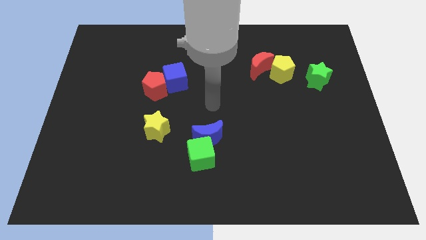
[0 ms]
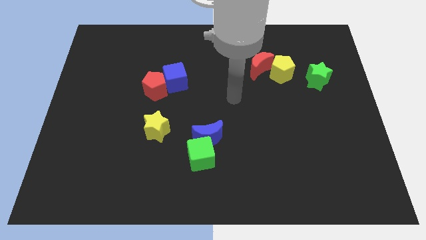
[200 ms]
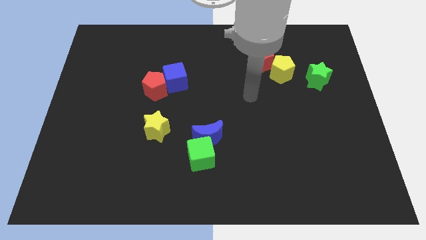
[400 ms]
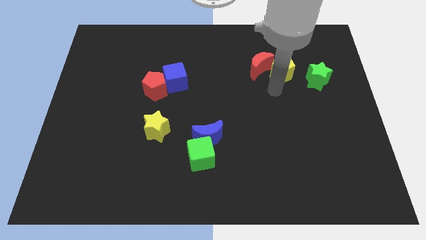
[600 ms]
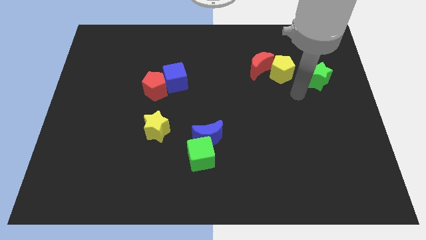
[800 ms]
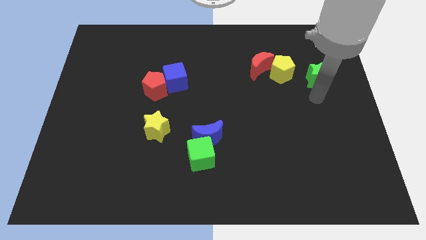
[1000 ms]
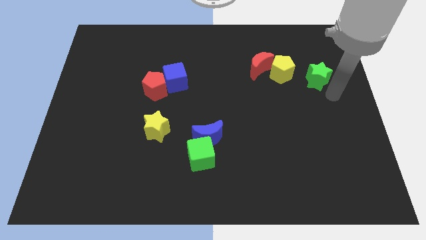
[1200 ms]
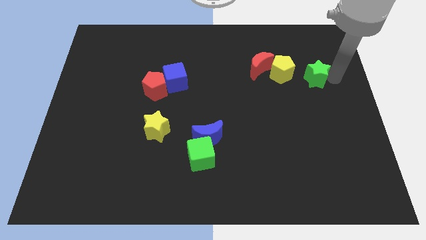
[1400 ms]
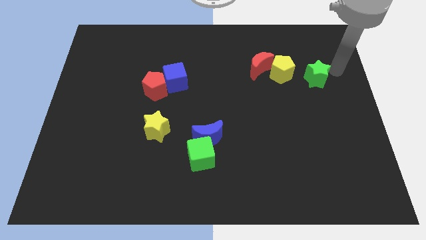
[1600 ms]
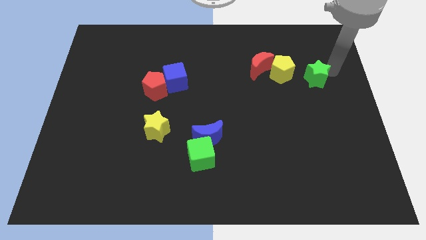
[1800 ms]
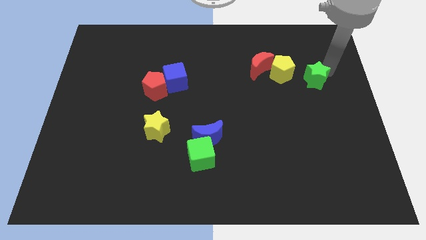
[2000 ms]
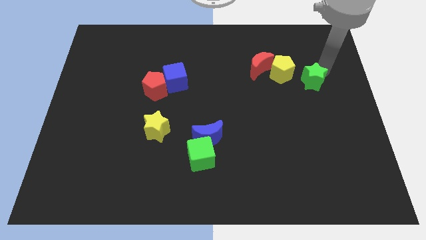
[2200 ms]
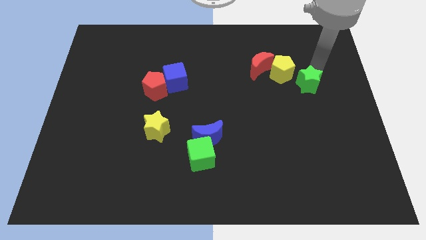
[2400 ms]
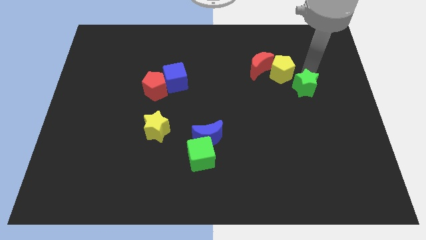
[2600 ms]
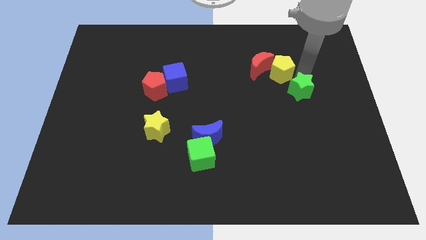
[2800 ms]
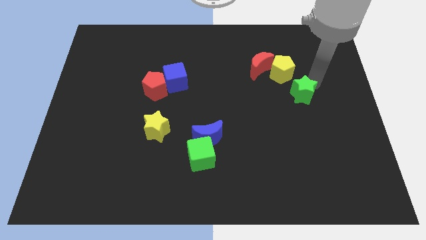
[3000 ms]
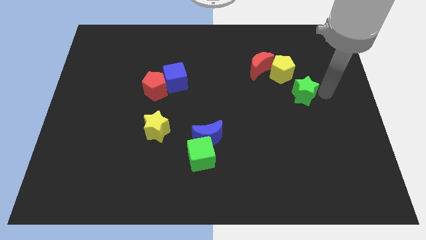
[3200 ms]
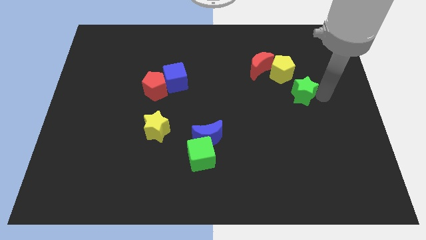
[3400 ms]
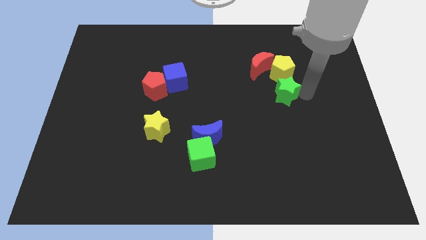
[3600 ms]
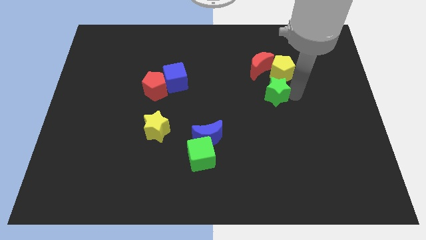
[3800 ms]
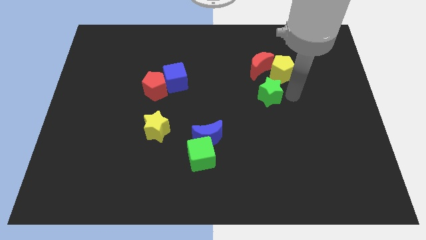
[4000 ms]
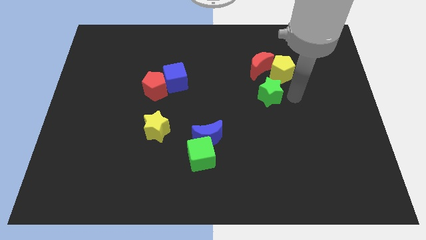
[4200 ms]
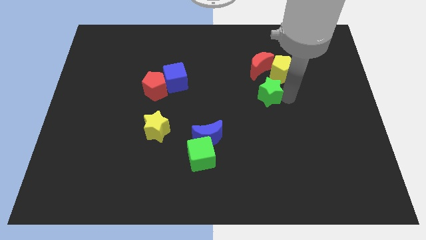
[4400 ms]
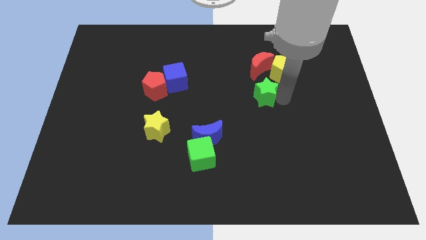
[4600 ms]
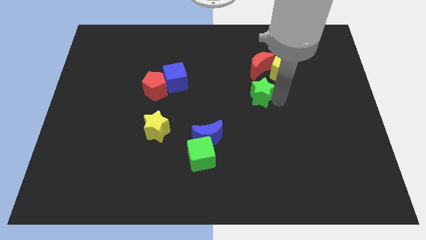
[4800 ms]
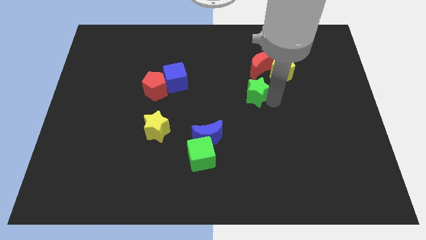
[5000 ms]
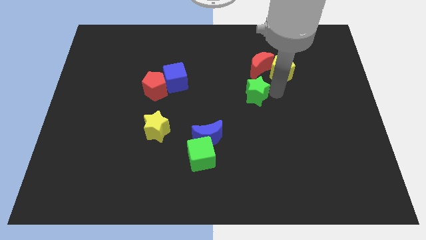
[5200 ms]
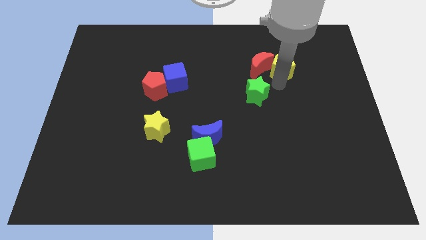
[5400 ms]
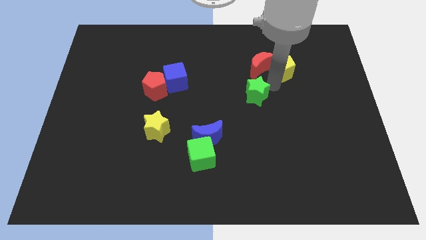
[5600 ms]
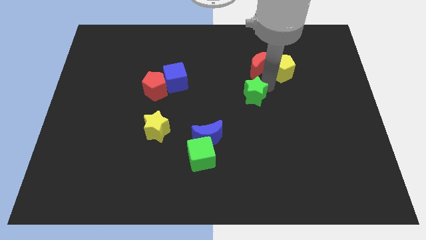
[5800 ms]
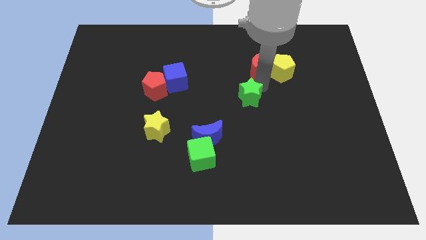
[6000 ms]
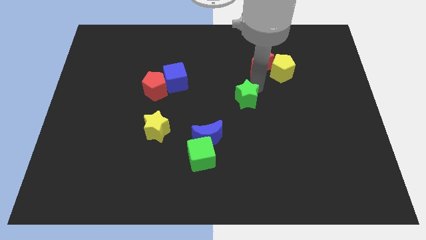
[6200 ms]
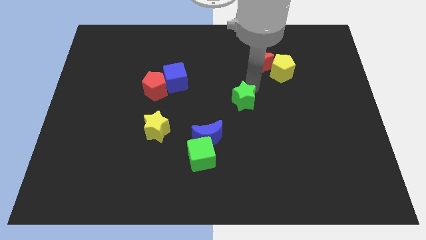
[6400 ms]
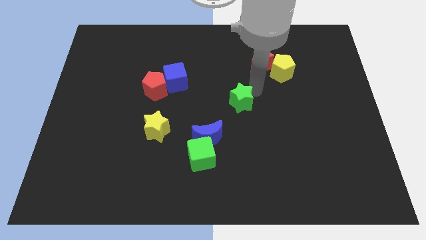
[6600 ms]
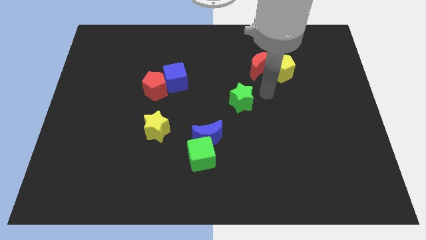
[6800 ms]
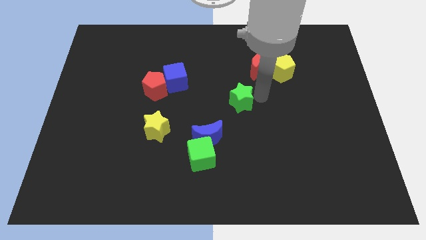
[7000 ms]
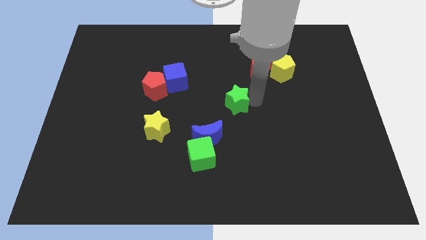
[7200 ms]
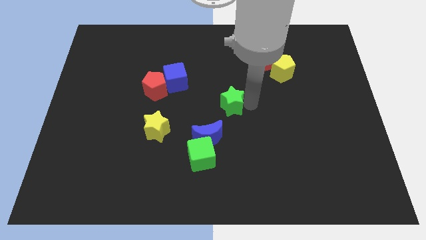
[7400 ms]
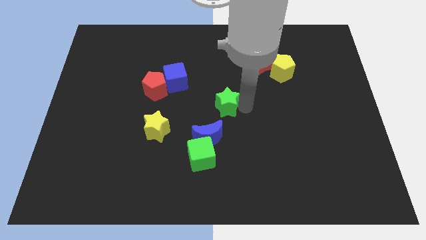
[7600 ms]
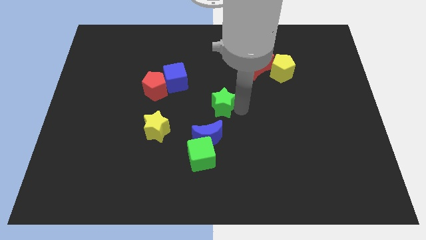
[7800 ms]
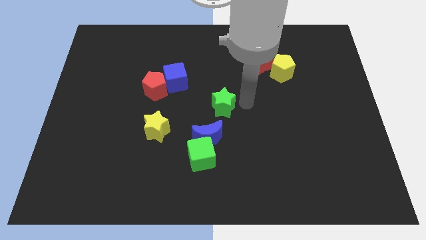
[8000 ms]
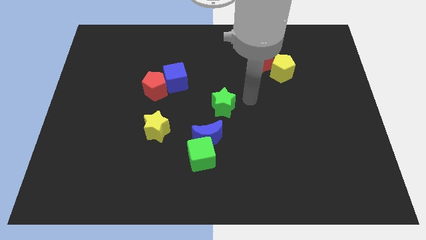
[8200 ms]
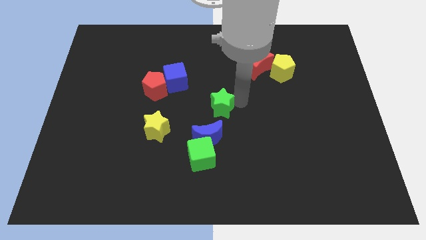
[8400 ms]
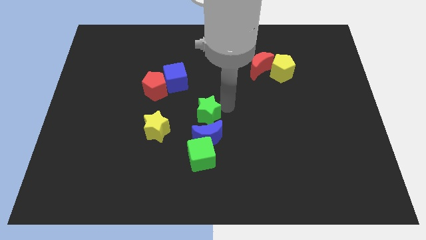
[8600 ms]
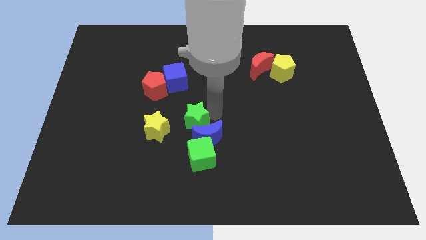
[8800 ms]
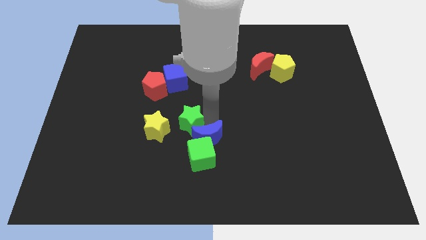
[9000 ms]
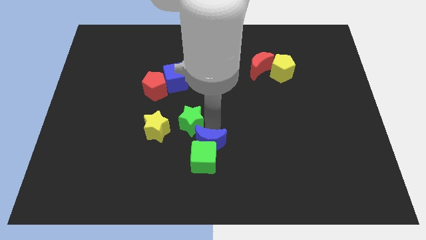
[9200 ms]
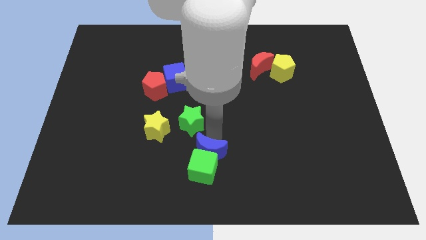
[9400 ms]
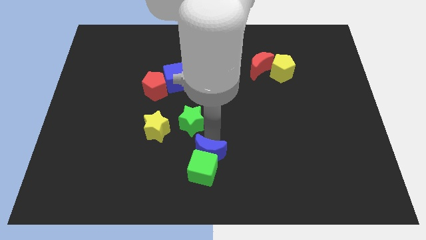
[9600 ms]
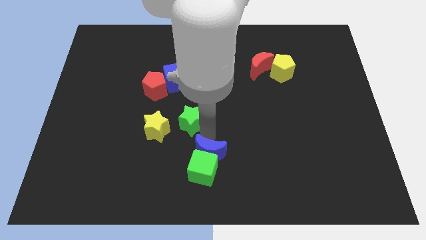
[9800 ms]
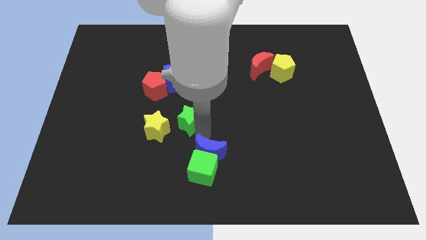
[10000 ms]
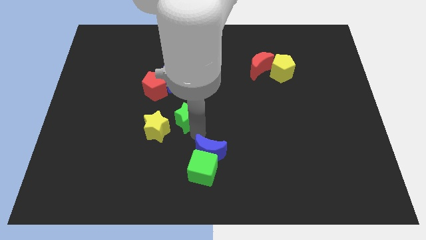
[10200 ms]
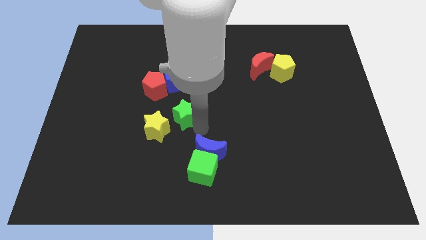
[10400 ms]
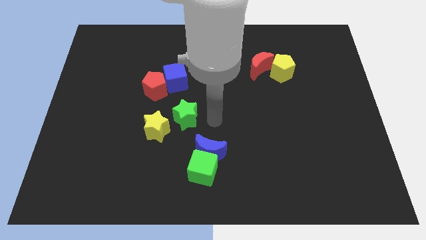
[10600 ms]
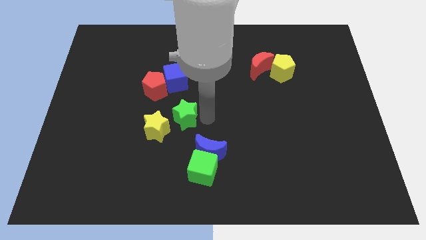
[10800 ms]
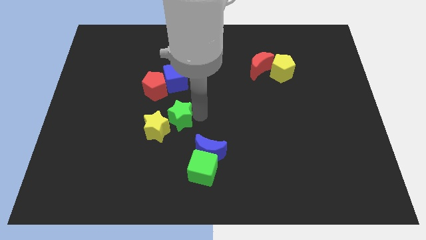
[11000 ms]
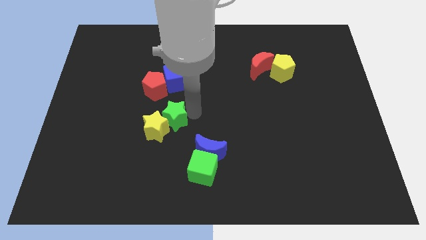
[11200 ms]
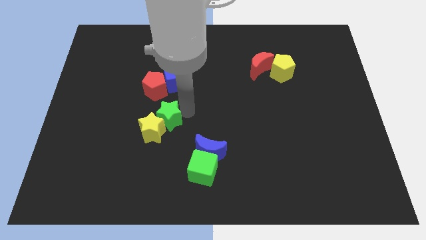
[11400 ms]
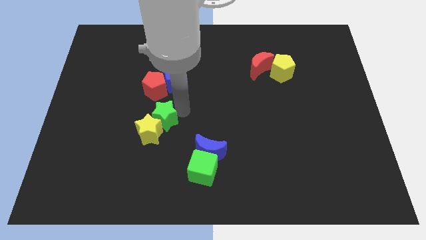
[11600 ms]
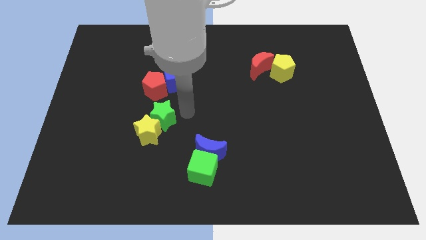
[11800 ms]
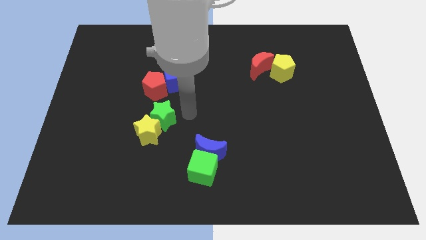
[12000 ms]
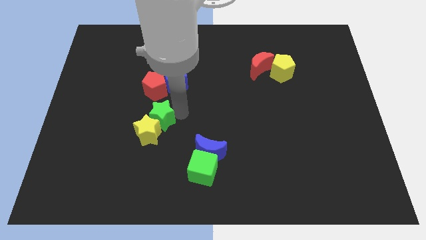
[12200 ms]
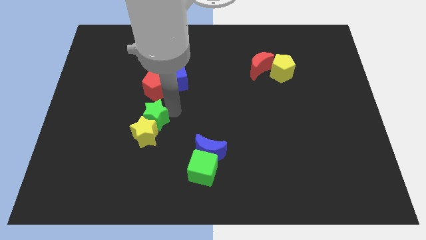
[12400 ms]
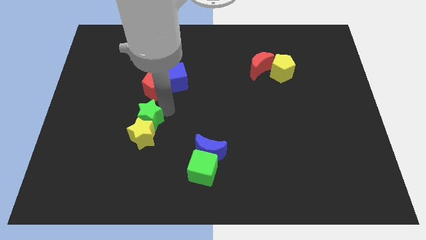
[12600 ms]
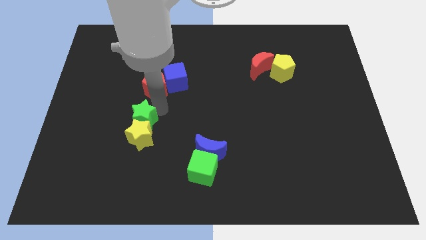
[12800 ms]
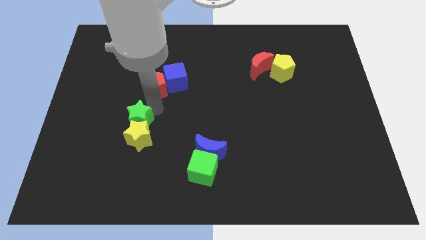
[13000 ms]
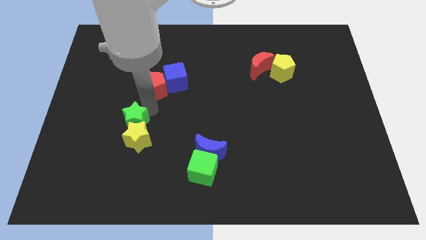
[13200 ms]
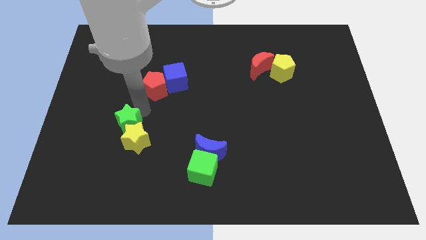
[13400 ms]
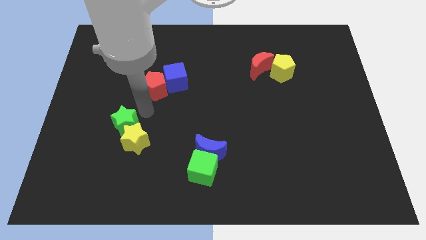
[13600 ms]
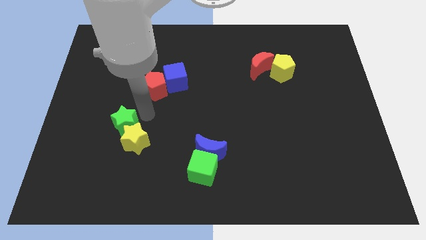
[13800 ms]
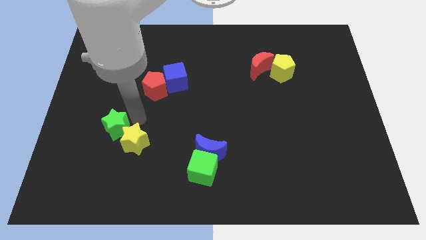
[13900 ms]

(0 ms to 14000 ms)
put the green star left of the yellow star

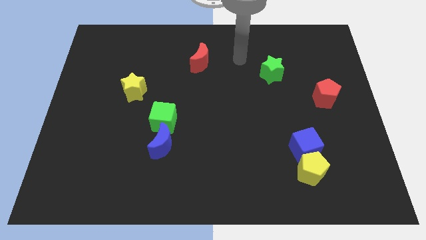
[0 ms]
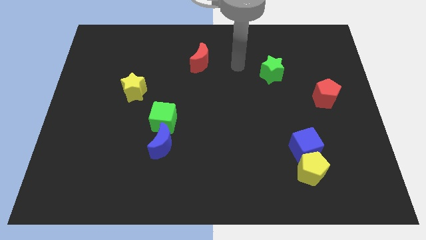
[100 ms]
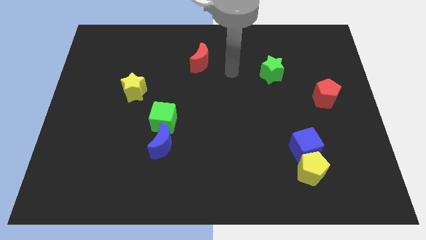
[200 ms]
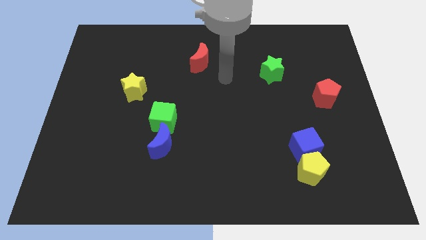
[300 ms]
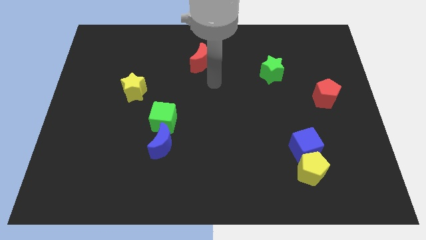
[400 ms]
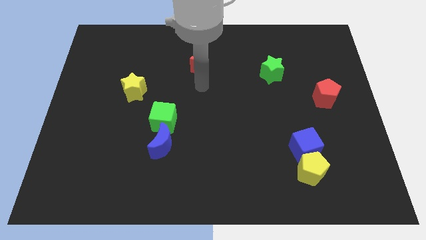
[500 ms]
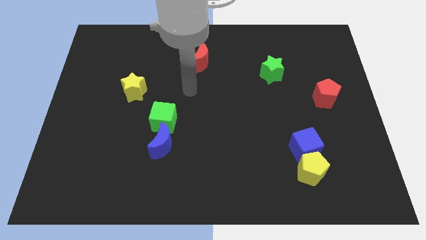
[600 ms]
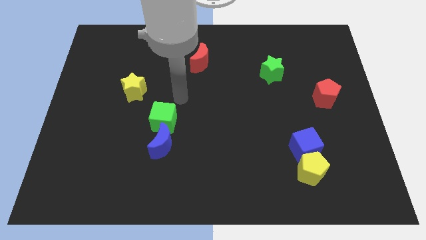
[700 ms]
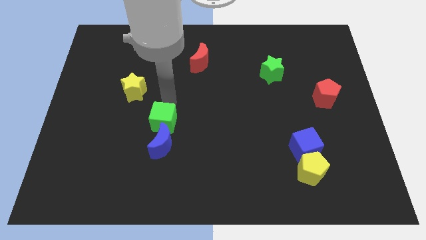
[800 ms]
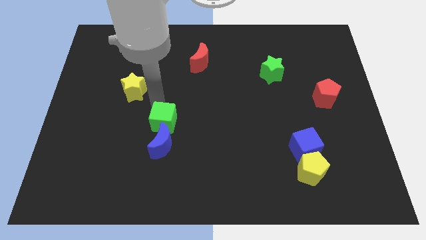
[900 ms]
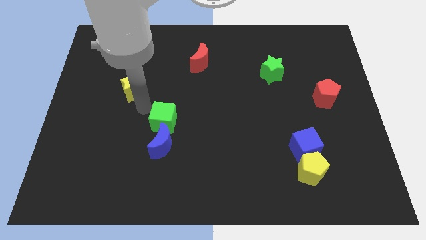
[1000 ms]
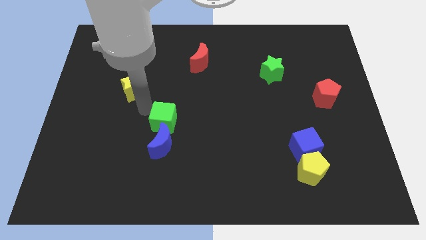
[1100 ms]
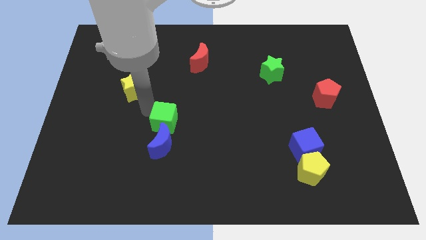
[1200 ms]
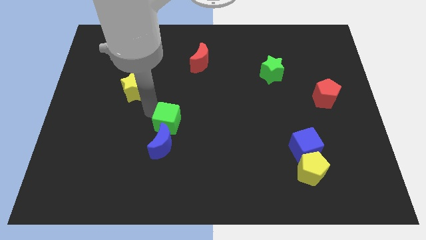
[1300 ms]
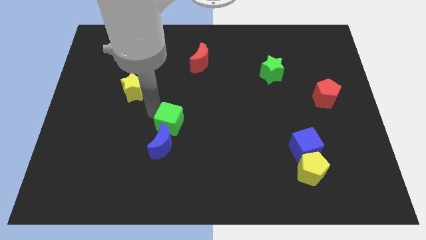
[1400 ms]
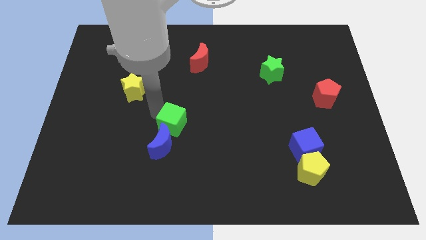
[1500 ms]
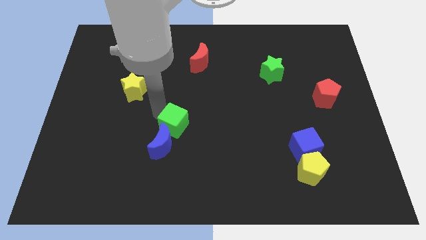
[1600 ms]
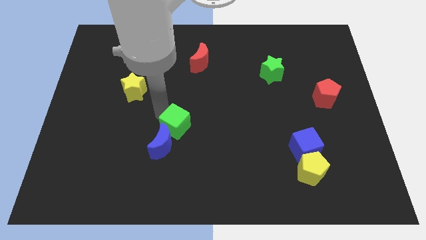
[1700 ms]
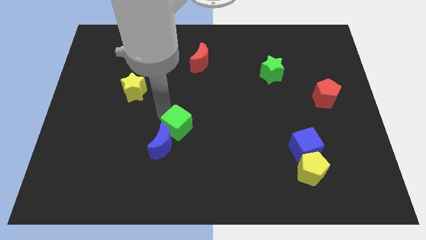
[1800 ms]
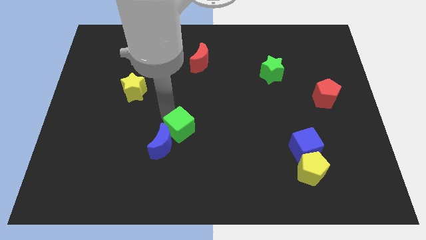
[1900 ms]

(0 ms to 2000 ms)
push the green cube to the right of the blue moon
